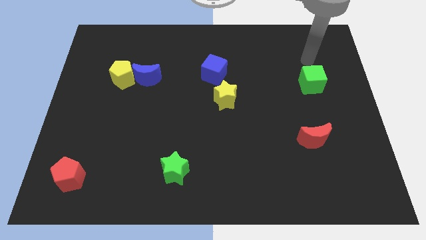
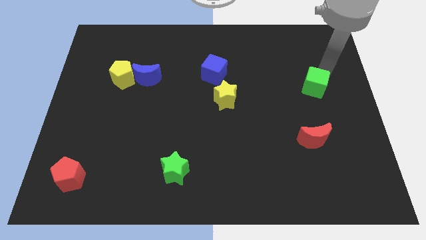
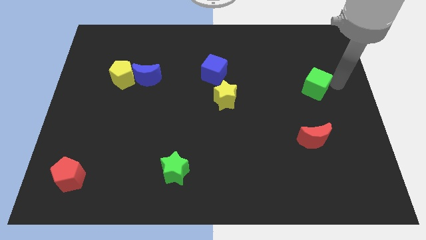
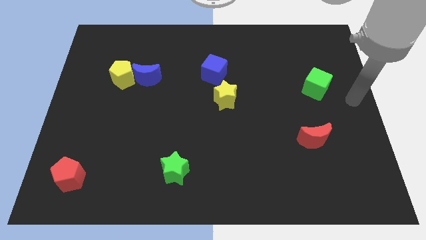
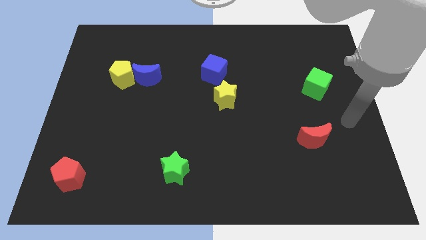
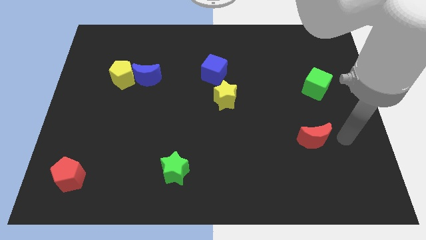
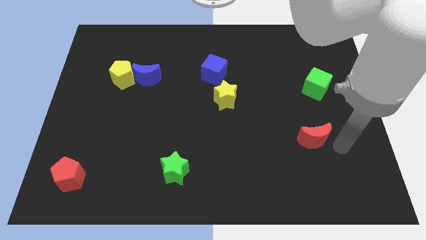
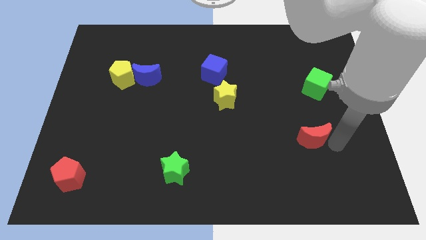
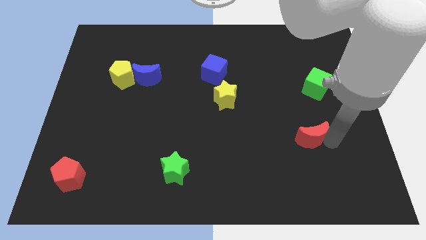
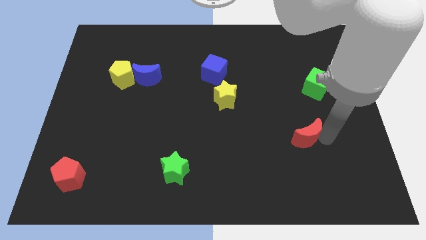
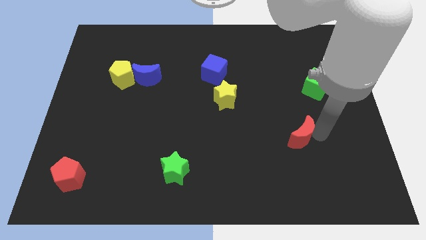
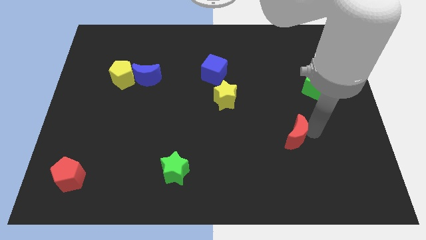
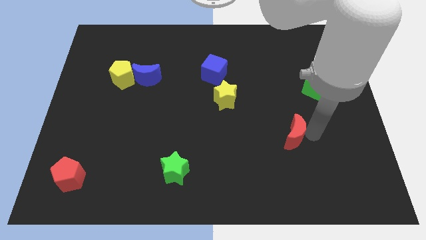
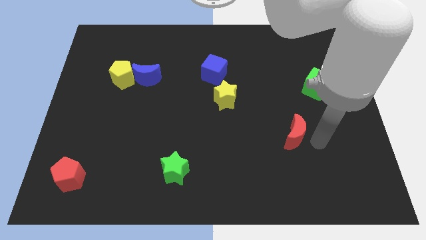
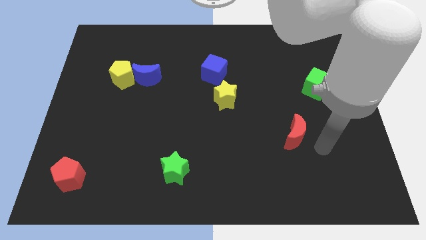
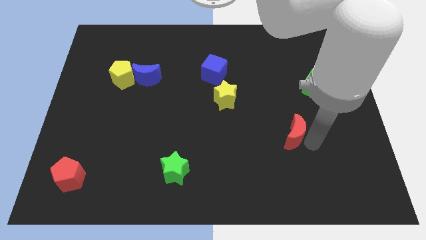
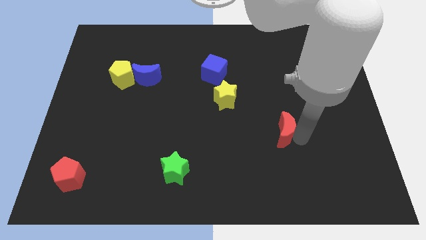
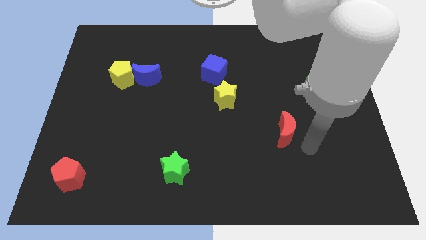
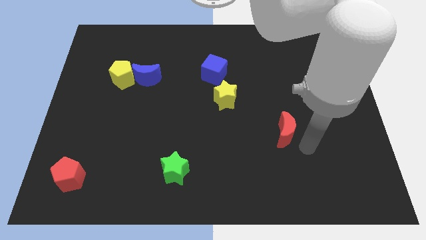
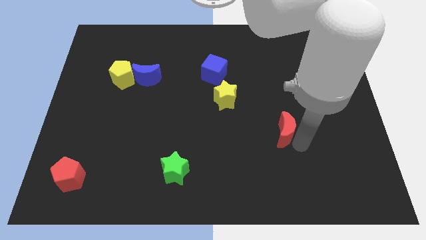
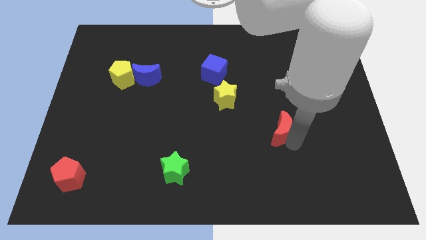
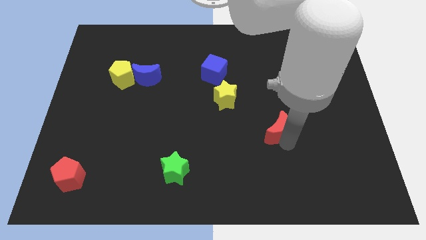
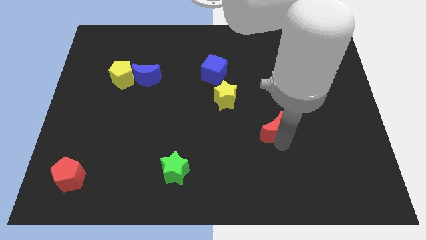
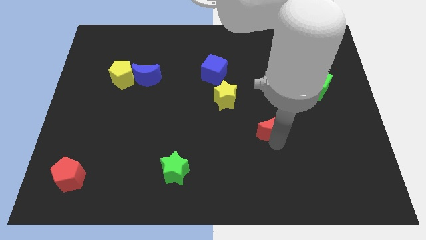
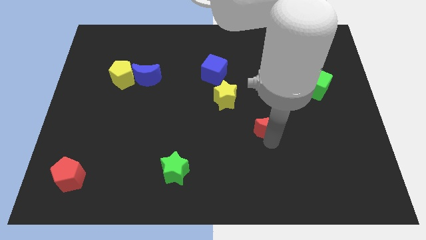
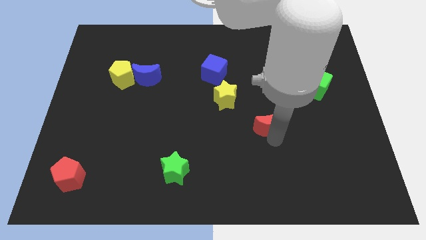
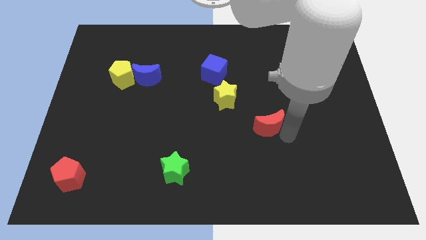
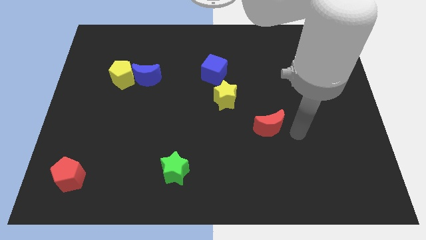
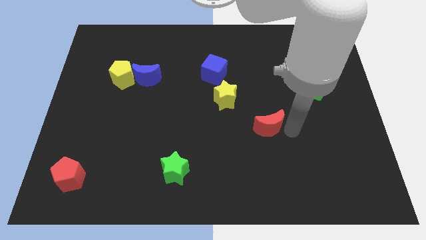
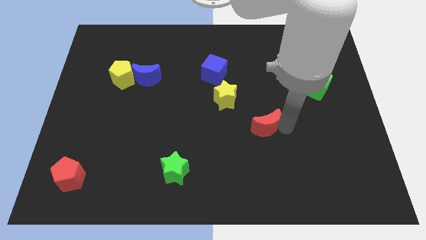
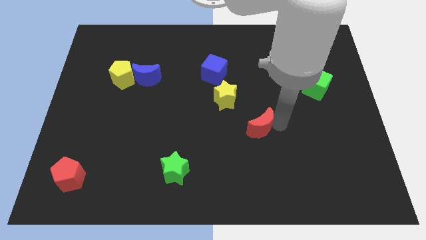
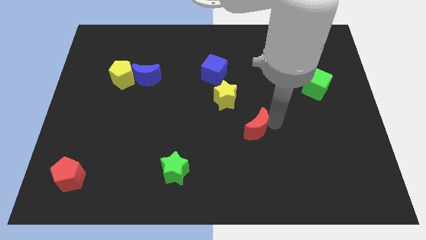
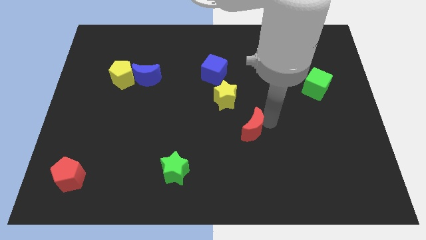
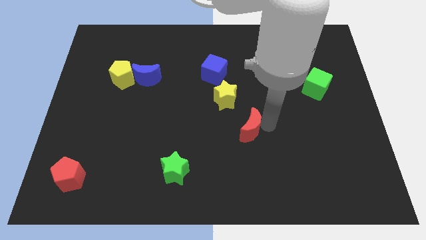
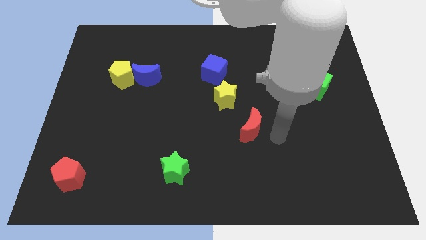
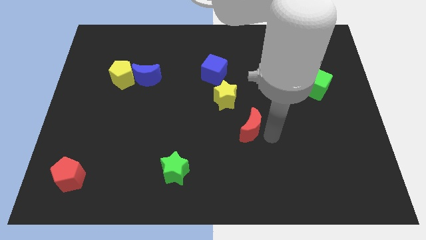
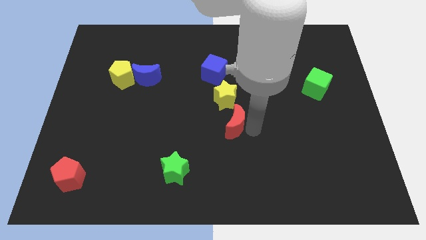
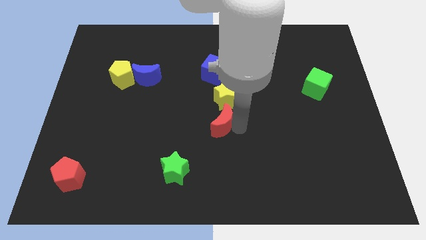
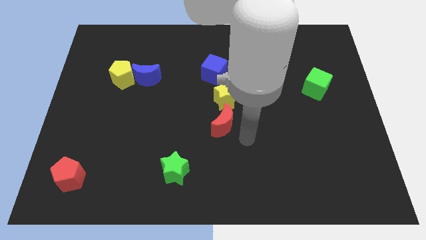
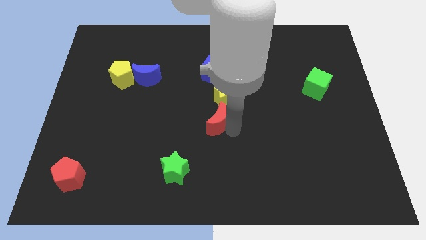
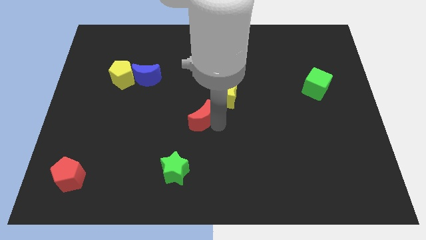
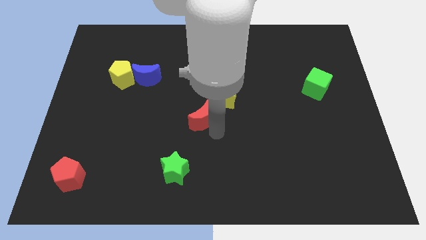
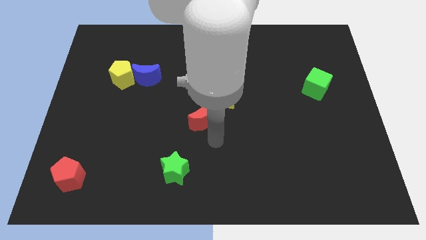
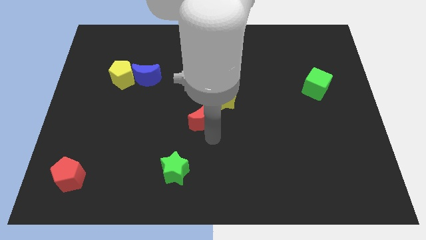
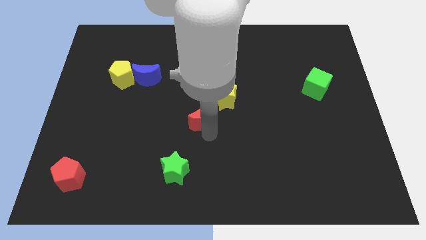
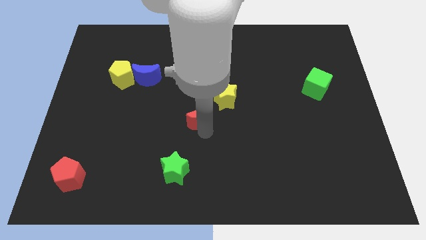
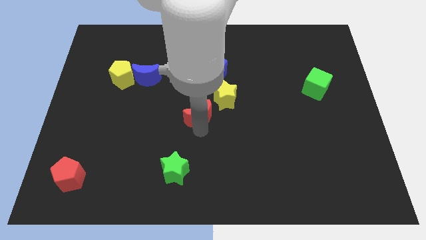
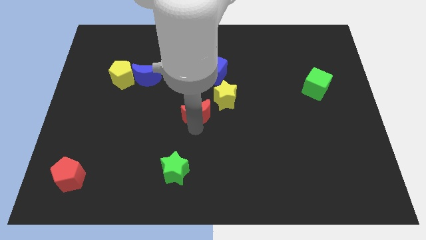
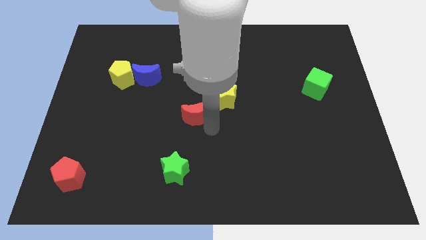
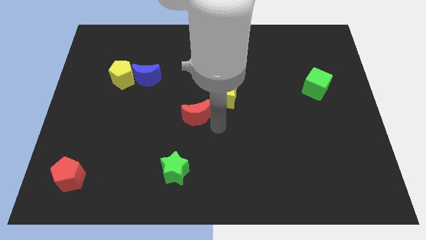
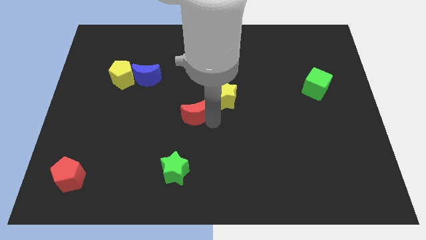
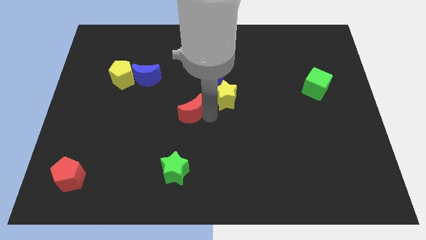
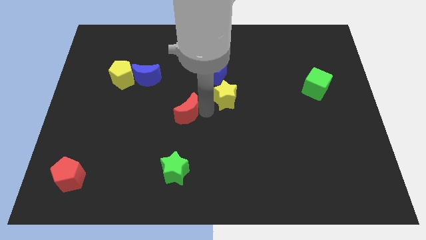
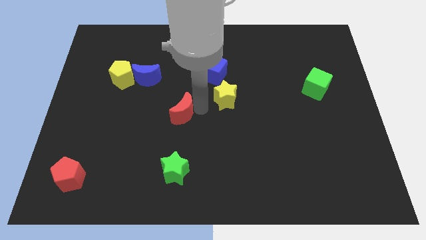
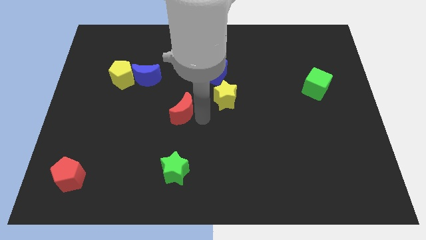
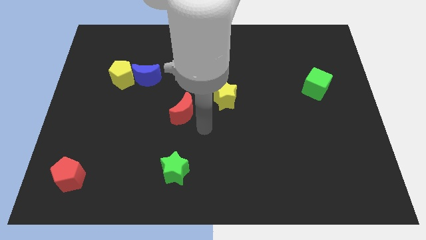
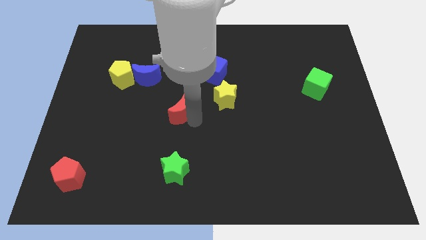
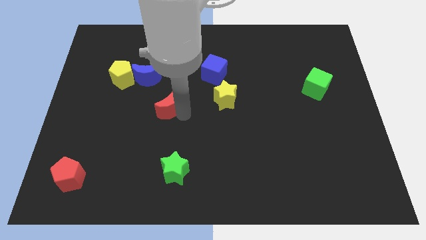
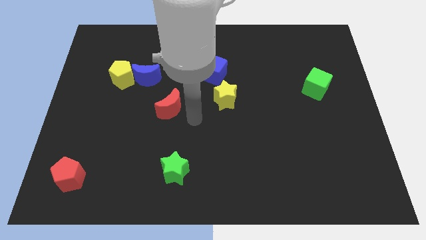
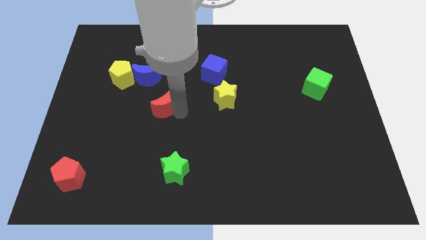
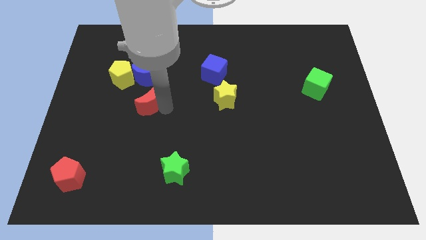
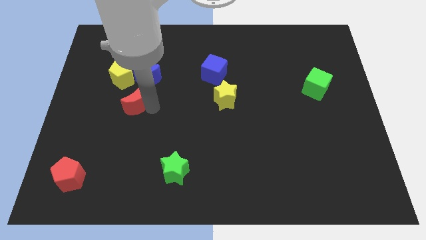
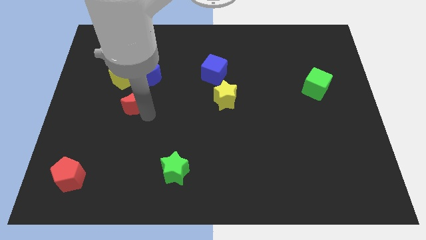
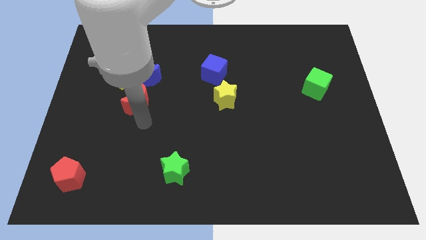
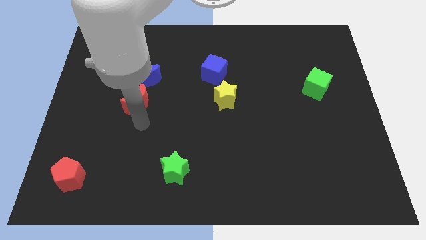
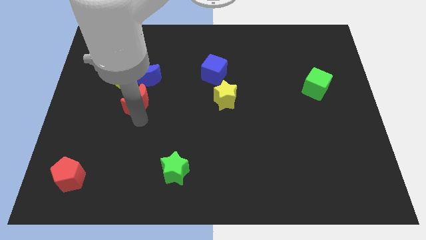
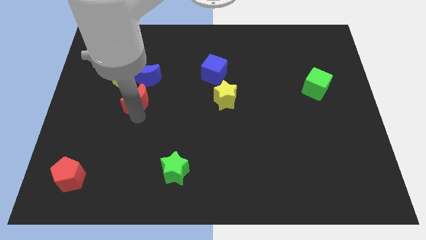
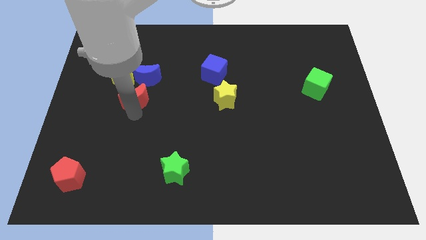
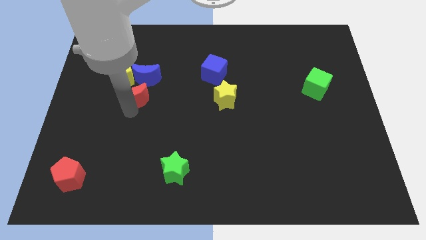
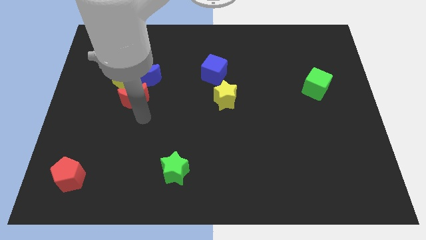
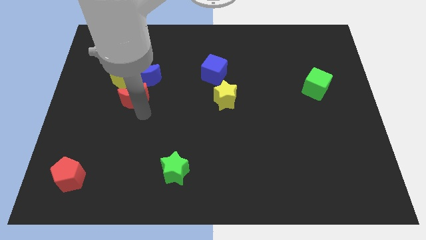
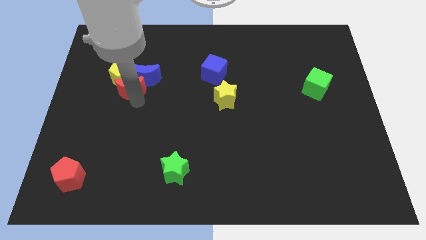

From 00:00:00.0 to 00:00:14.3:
move the red moon next to the yellow pentagon

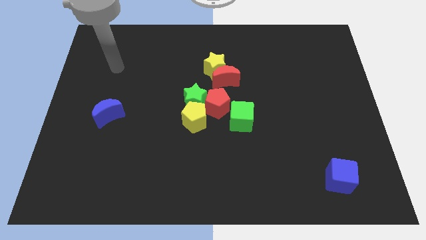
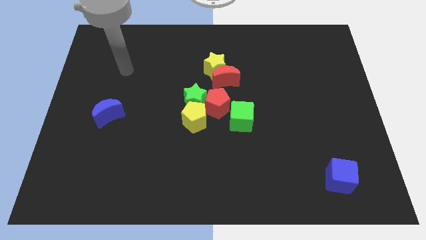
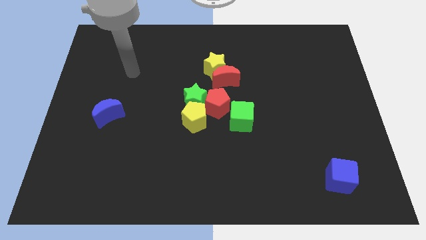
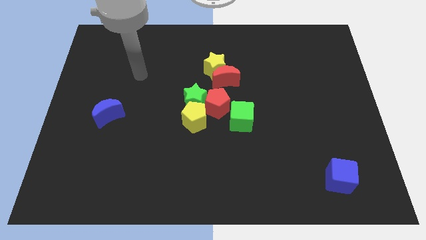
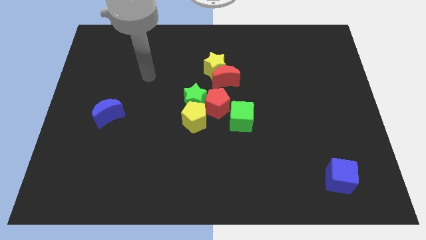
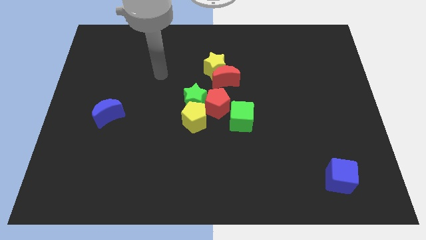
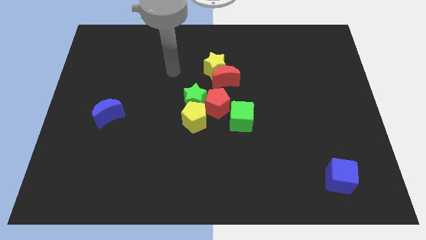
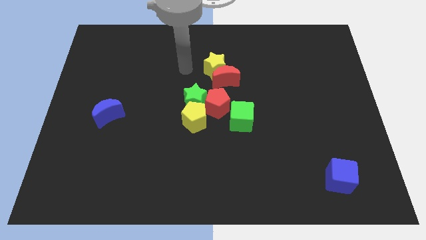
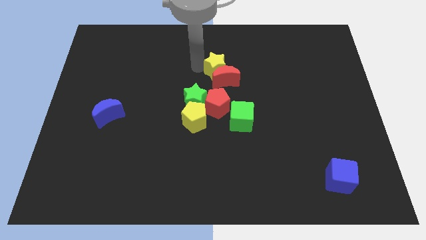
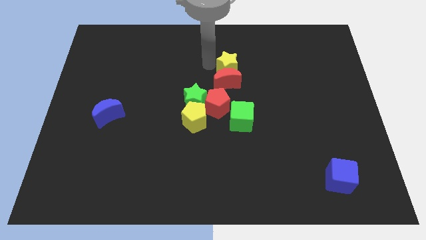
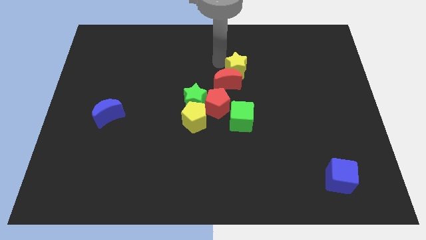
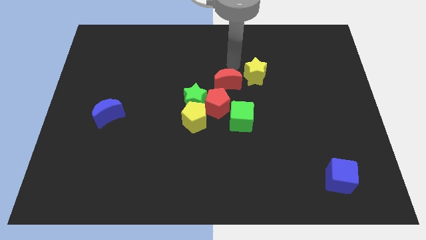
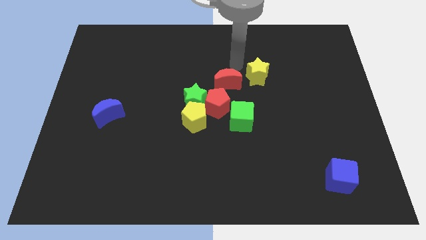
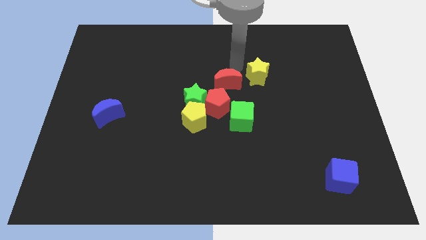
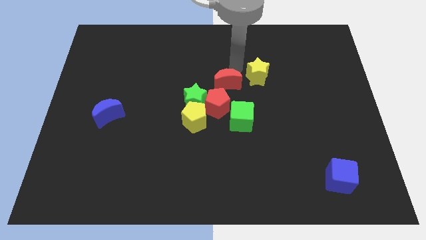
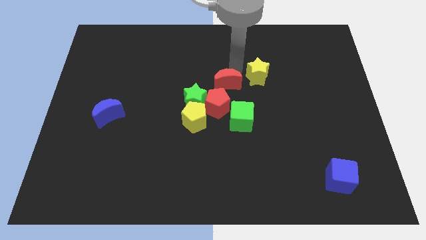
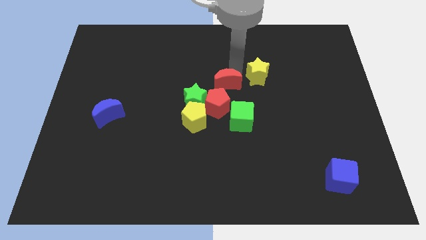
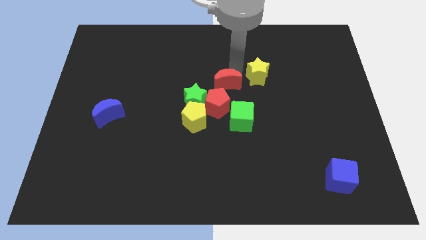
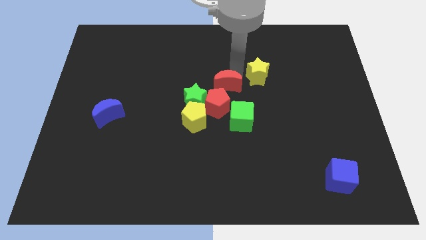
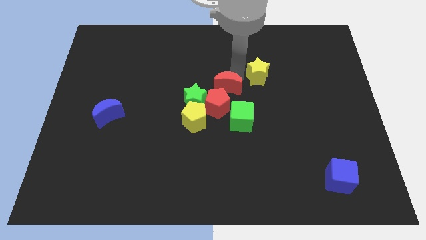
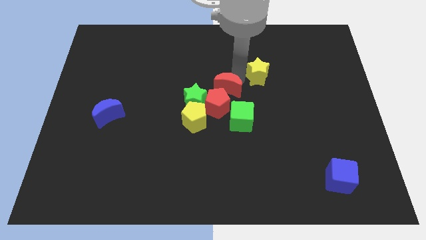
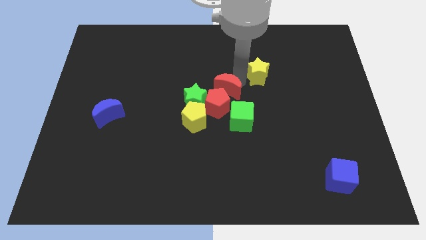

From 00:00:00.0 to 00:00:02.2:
put the red moon to the red pentagon
